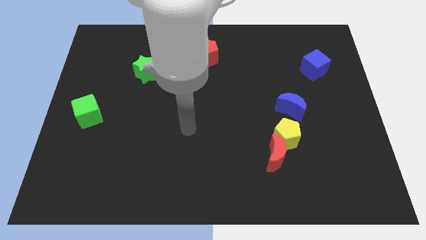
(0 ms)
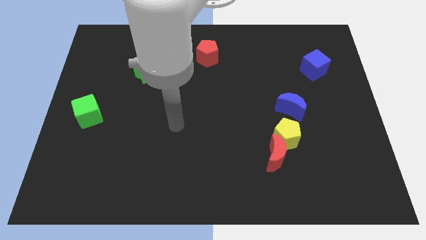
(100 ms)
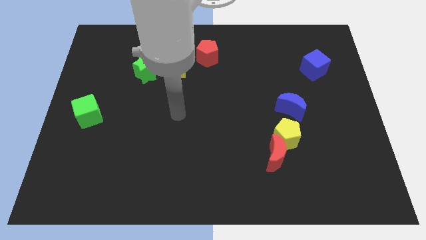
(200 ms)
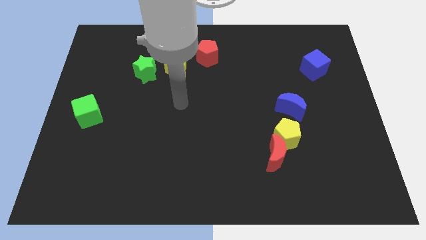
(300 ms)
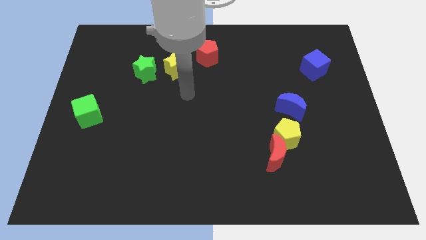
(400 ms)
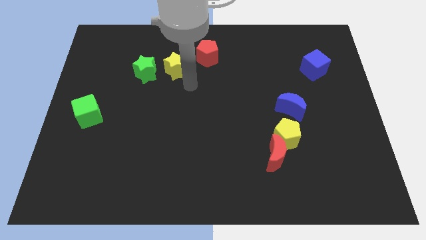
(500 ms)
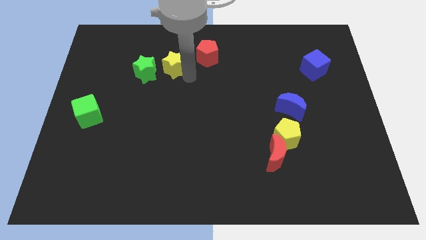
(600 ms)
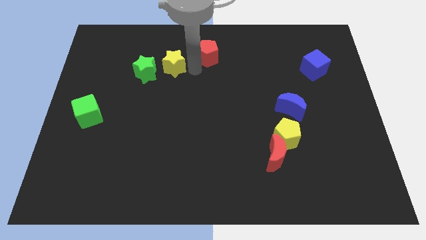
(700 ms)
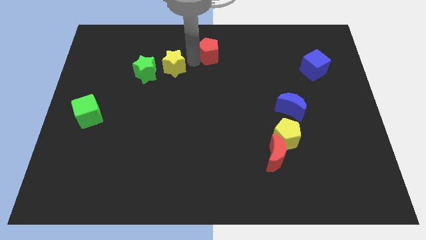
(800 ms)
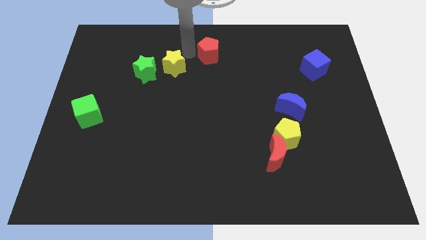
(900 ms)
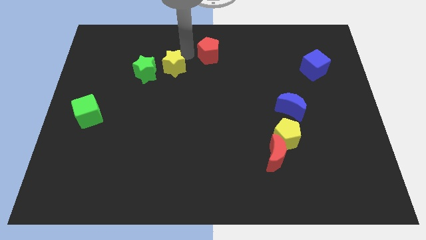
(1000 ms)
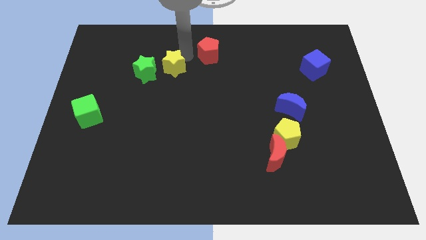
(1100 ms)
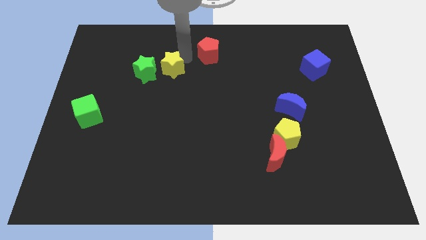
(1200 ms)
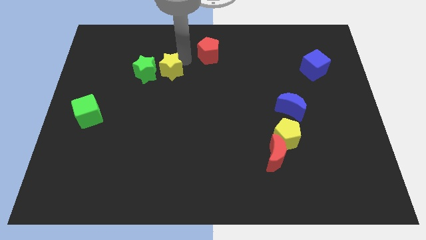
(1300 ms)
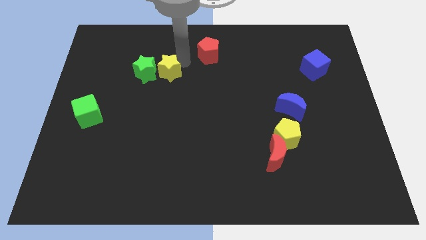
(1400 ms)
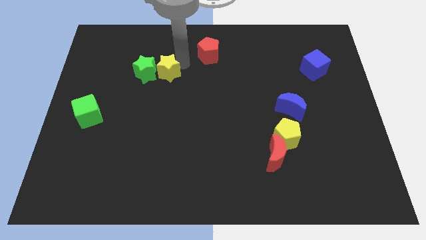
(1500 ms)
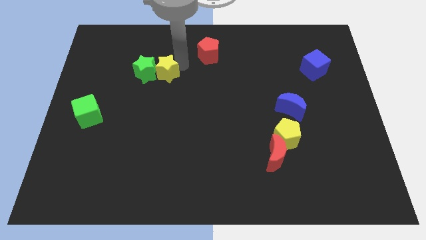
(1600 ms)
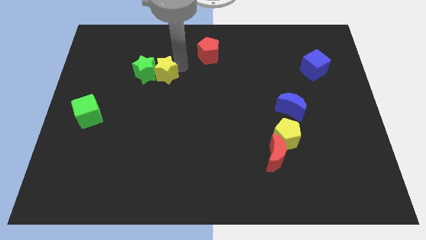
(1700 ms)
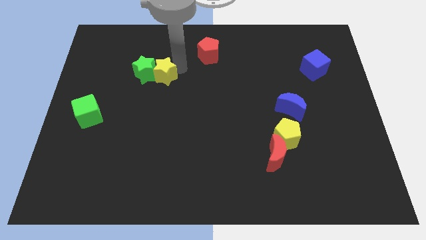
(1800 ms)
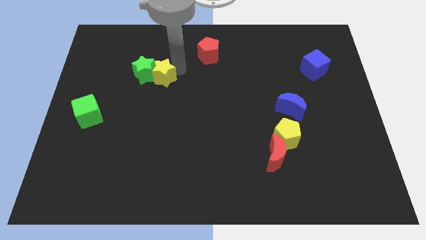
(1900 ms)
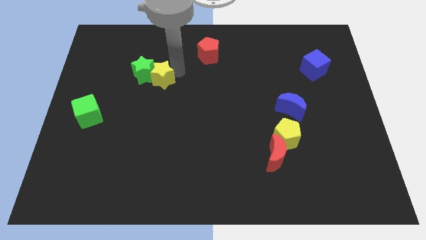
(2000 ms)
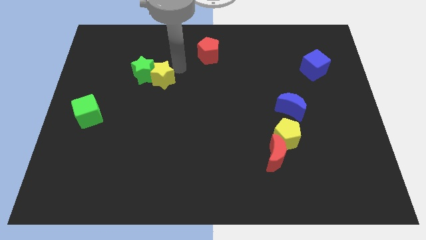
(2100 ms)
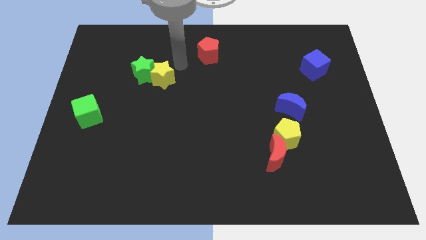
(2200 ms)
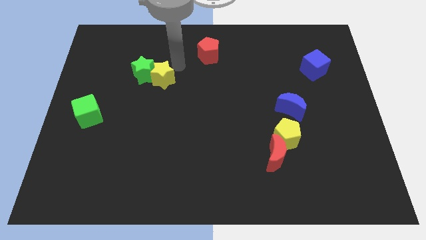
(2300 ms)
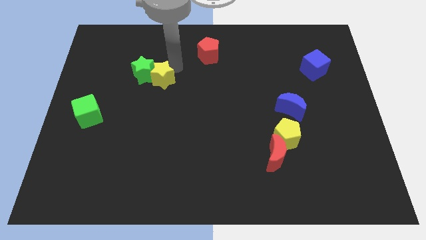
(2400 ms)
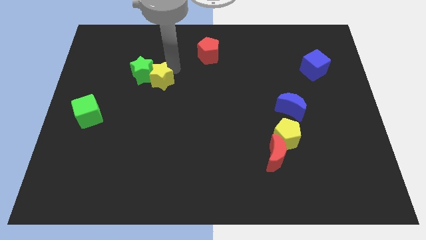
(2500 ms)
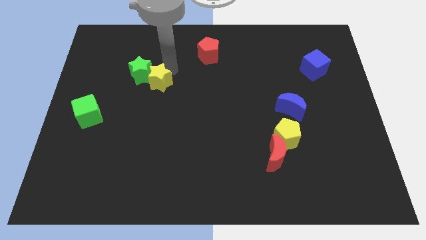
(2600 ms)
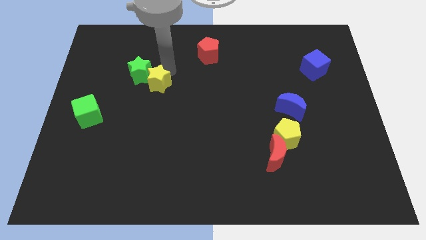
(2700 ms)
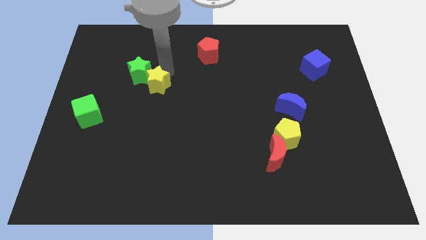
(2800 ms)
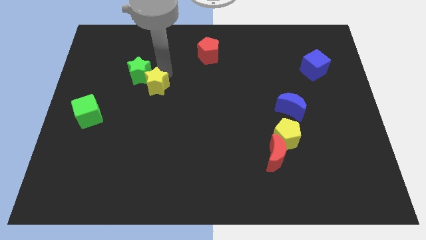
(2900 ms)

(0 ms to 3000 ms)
slide the yellow star slightly diagonally downwards and to the left

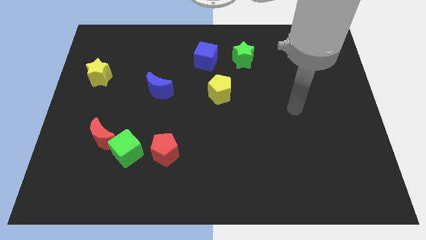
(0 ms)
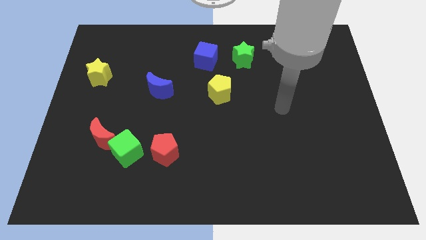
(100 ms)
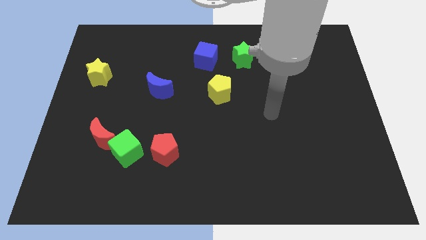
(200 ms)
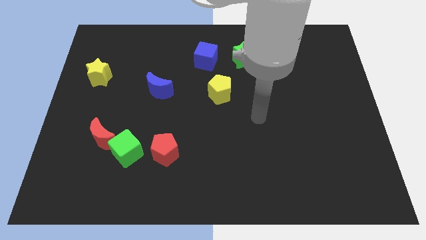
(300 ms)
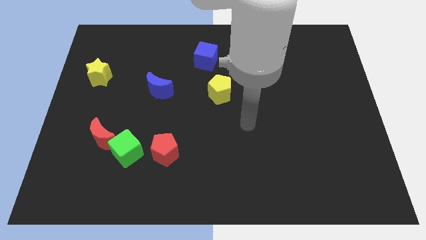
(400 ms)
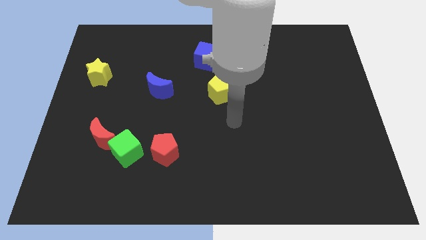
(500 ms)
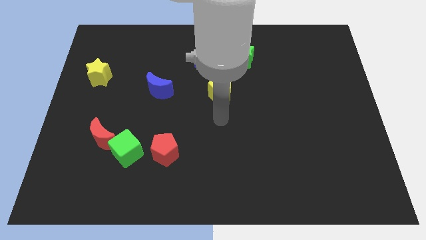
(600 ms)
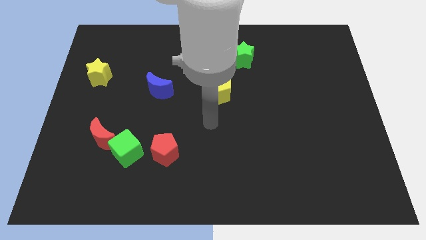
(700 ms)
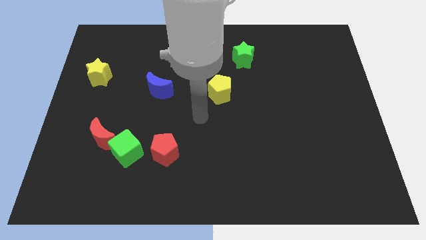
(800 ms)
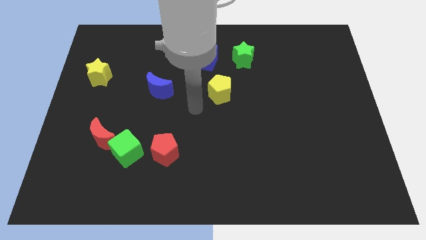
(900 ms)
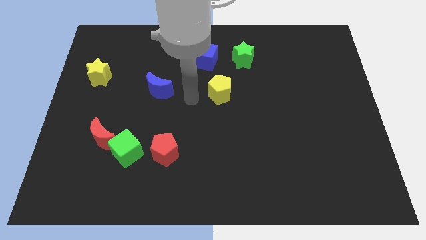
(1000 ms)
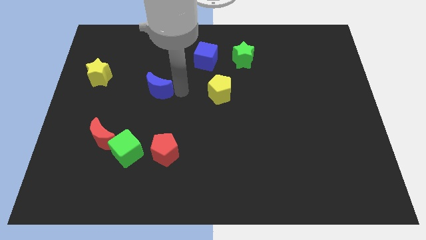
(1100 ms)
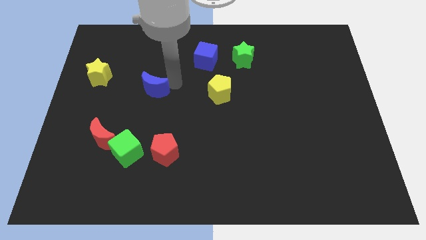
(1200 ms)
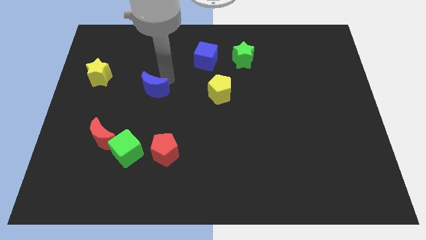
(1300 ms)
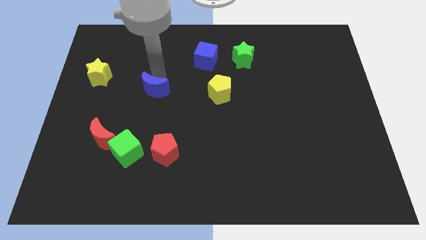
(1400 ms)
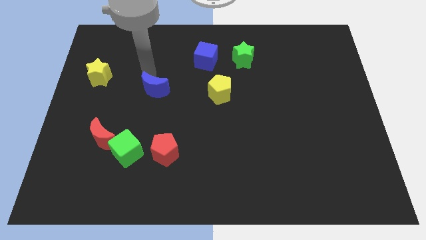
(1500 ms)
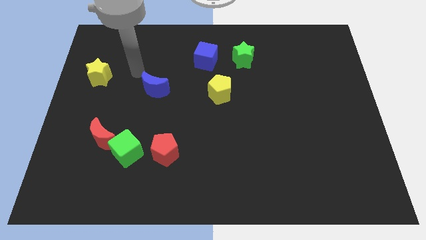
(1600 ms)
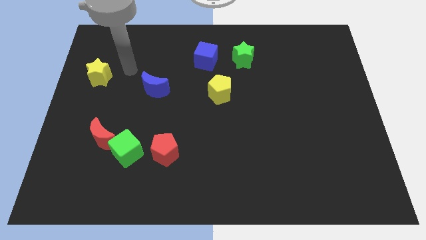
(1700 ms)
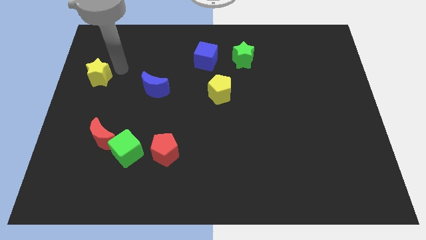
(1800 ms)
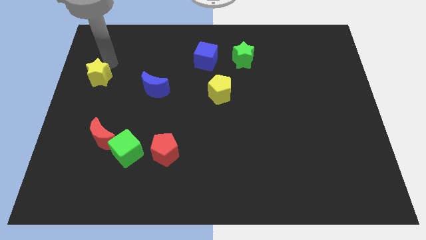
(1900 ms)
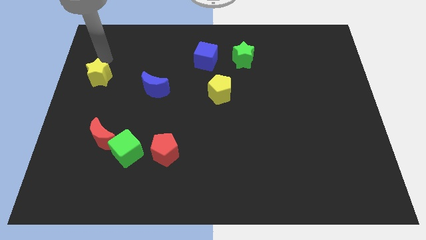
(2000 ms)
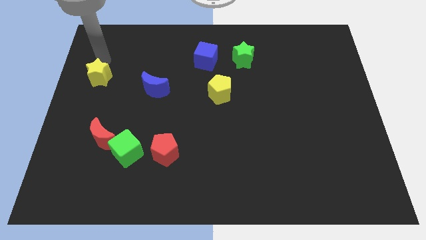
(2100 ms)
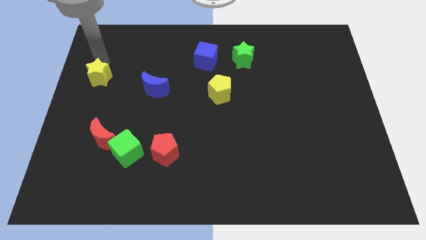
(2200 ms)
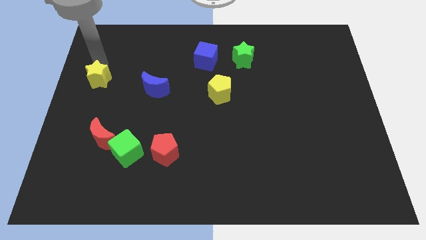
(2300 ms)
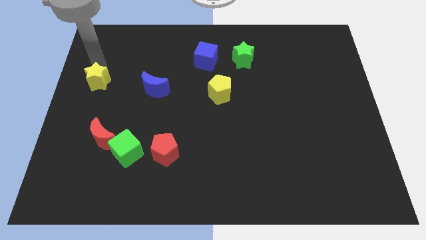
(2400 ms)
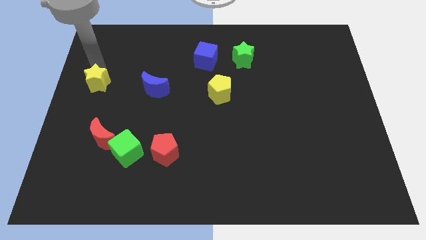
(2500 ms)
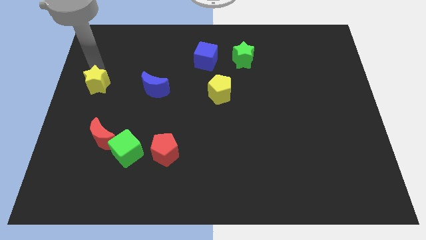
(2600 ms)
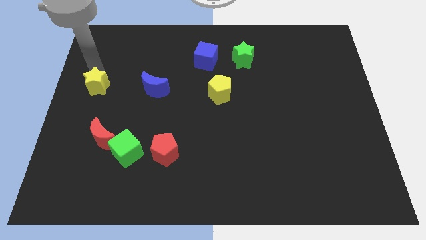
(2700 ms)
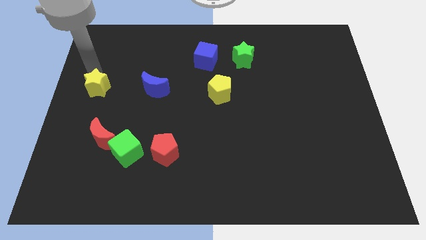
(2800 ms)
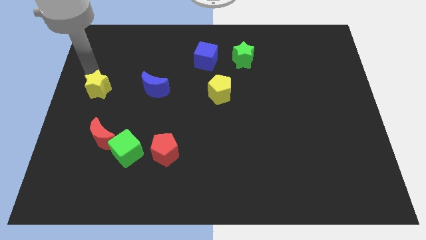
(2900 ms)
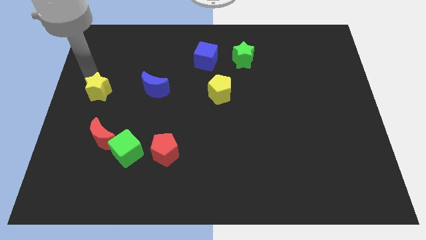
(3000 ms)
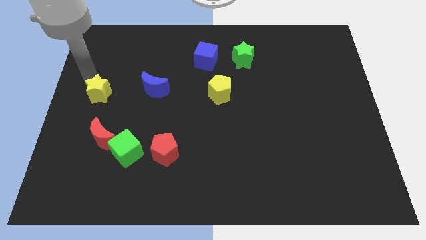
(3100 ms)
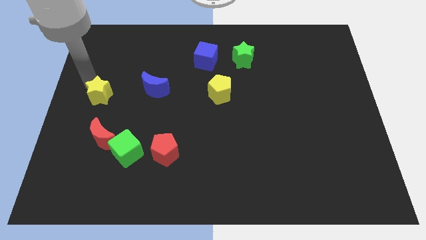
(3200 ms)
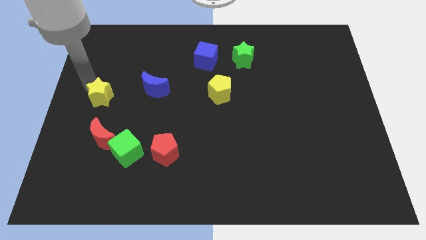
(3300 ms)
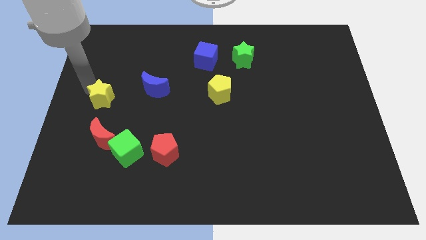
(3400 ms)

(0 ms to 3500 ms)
slightly slide the yellow star down

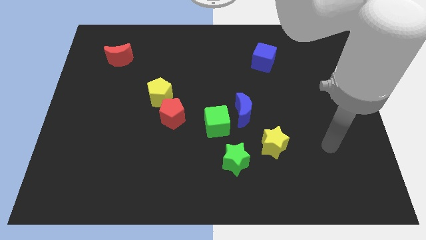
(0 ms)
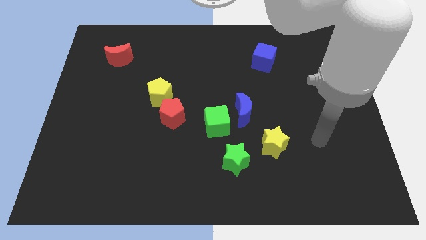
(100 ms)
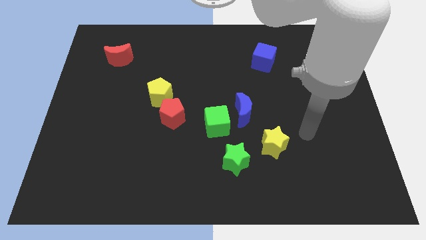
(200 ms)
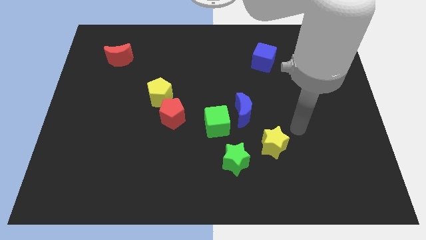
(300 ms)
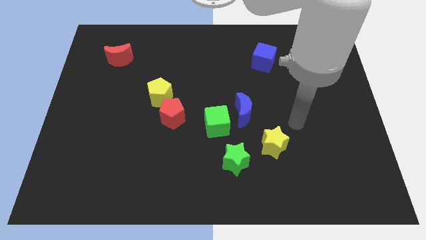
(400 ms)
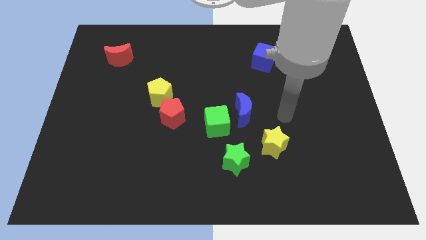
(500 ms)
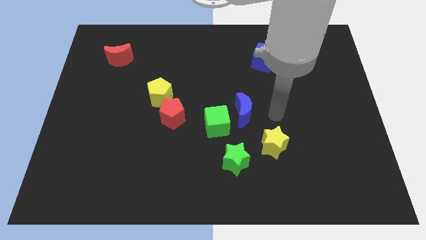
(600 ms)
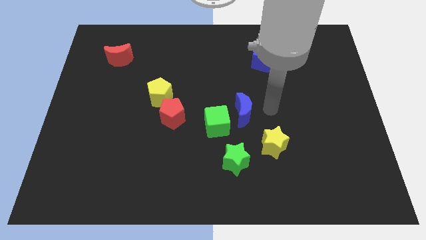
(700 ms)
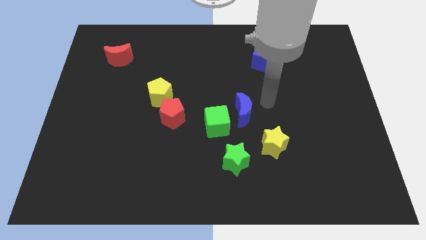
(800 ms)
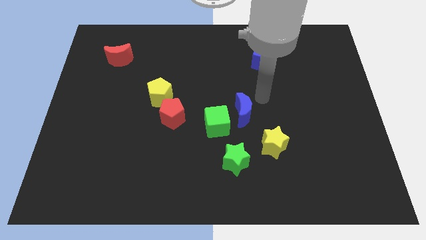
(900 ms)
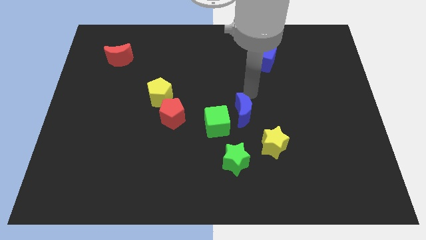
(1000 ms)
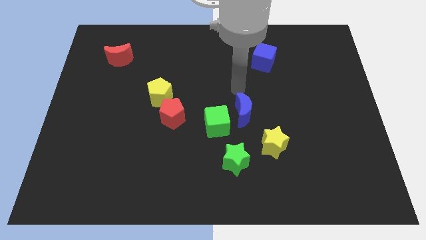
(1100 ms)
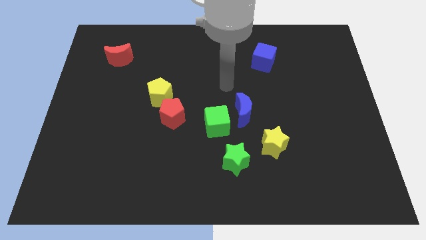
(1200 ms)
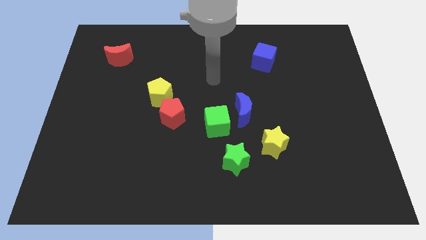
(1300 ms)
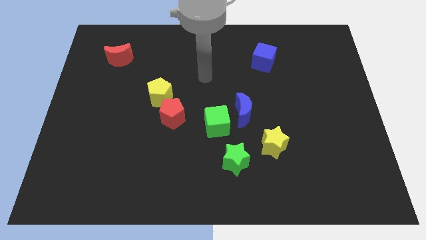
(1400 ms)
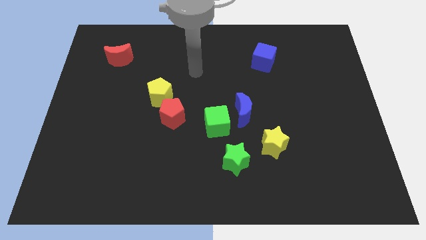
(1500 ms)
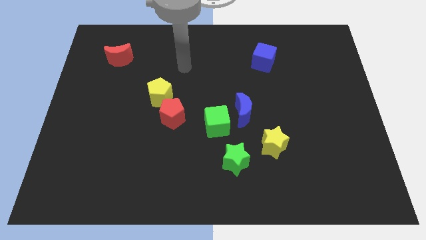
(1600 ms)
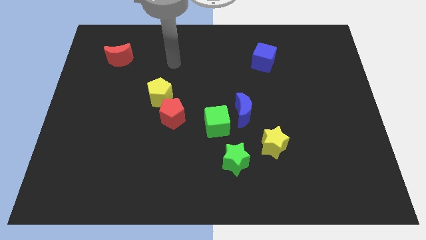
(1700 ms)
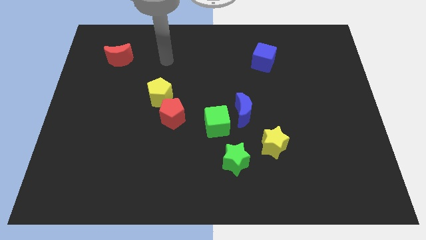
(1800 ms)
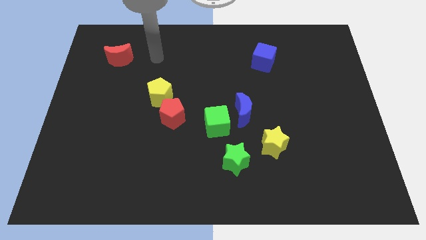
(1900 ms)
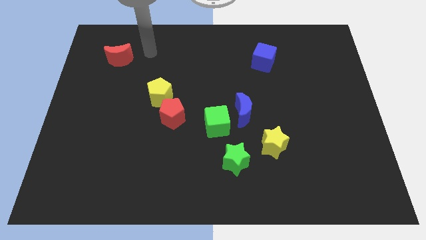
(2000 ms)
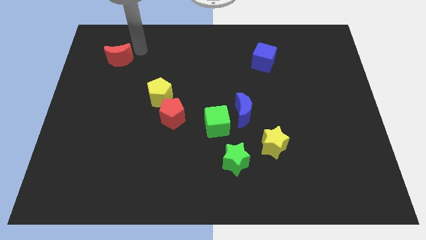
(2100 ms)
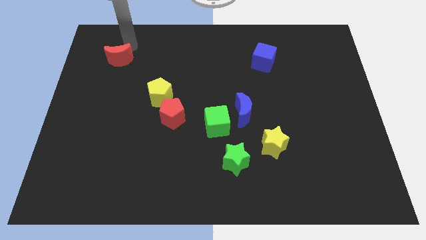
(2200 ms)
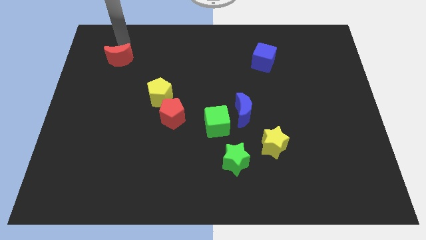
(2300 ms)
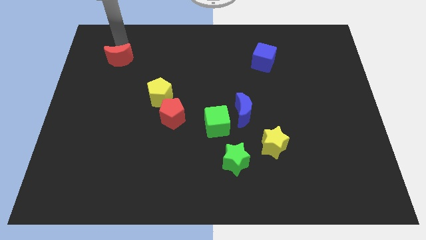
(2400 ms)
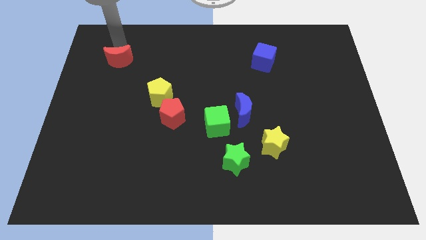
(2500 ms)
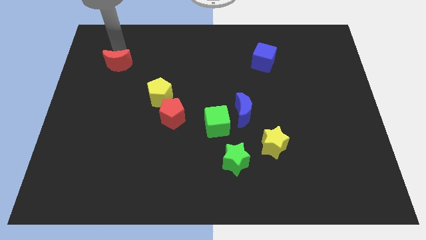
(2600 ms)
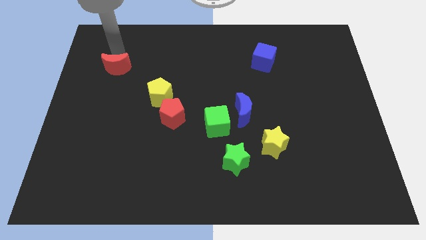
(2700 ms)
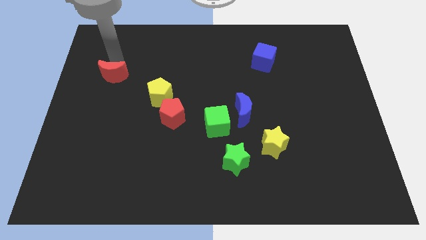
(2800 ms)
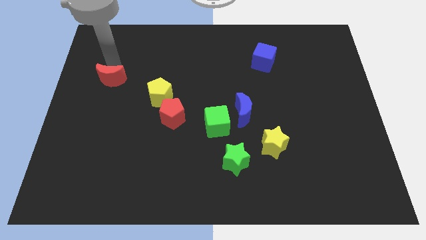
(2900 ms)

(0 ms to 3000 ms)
slightly slide the red moon downwards
